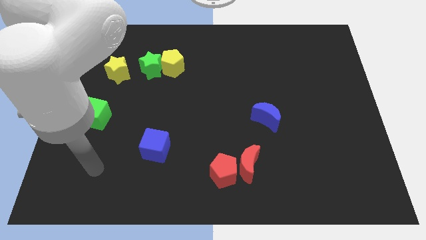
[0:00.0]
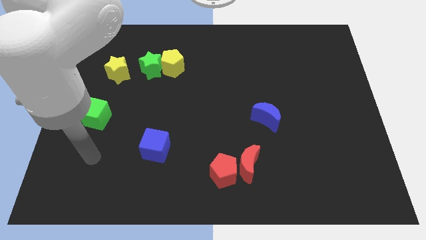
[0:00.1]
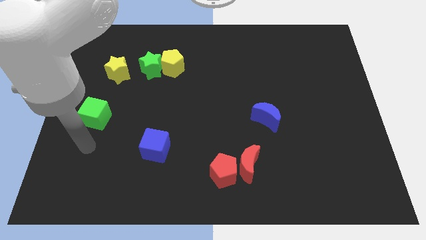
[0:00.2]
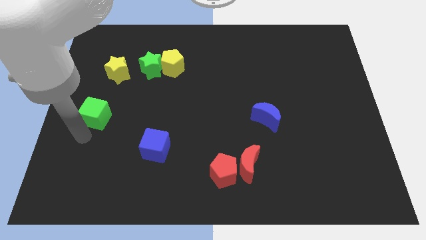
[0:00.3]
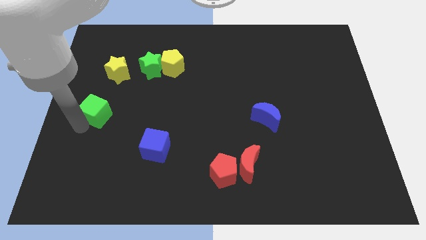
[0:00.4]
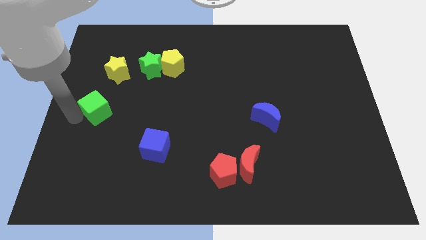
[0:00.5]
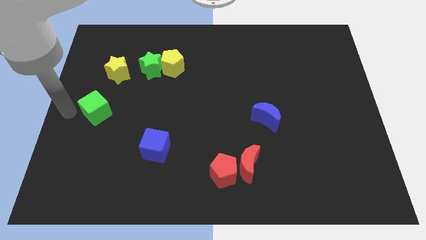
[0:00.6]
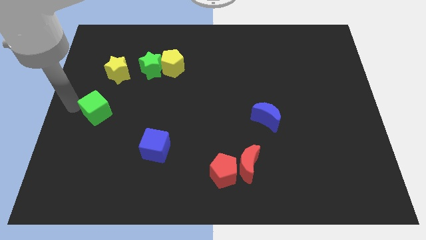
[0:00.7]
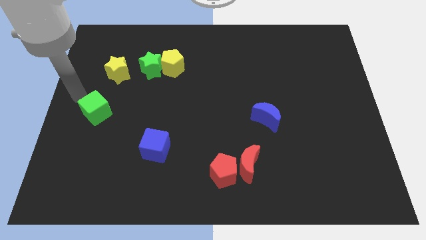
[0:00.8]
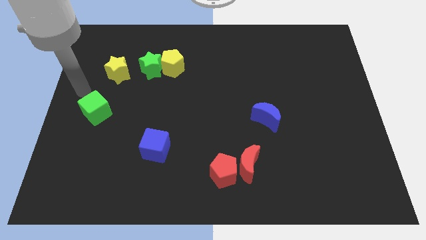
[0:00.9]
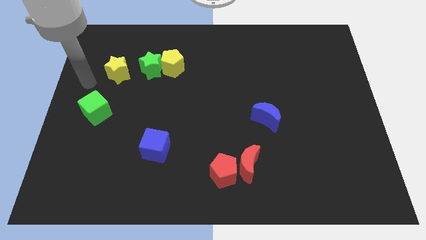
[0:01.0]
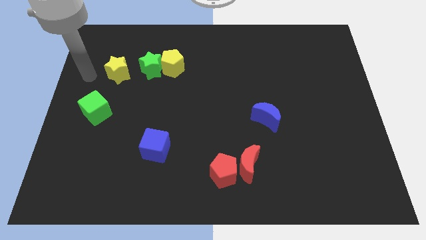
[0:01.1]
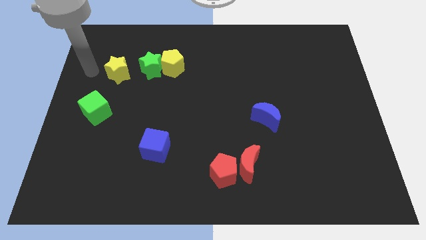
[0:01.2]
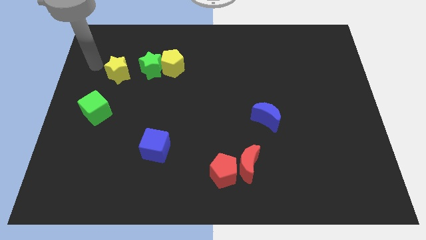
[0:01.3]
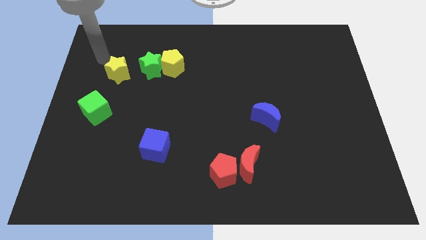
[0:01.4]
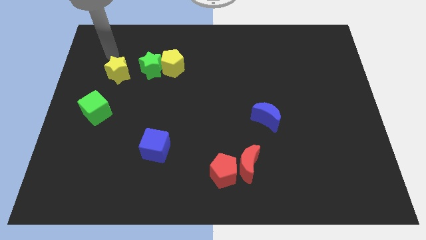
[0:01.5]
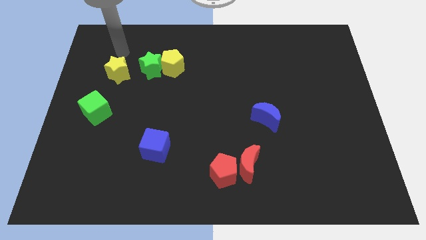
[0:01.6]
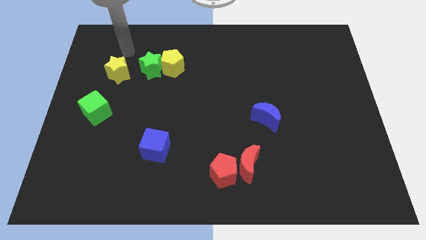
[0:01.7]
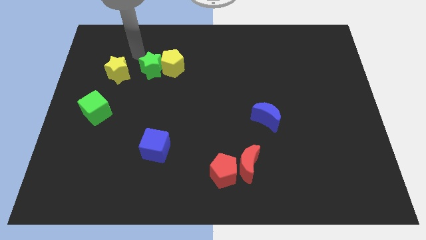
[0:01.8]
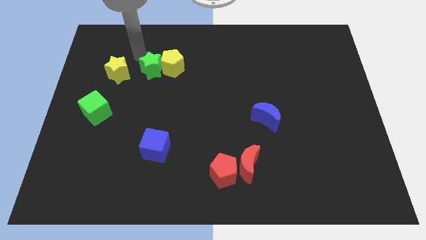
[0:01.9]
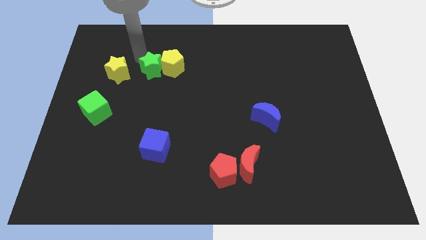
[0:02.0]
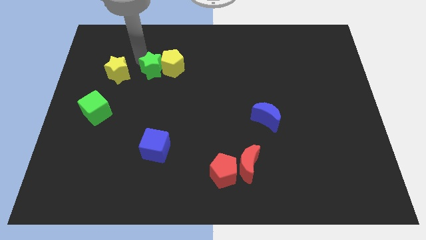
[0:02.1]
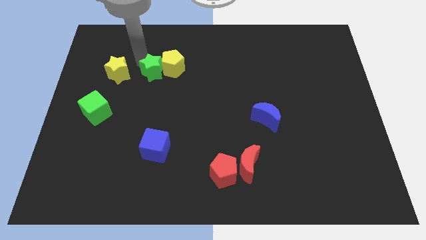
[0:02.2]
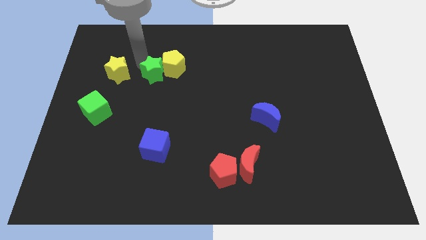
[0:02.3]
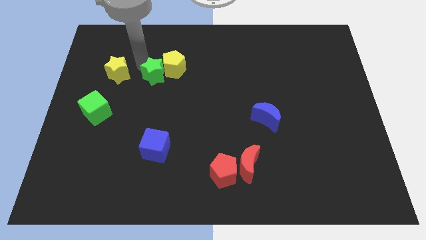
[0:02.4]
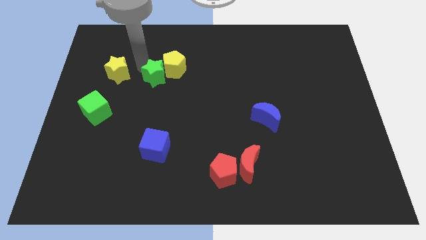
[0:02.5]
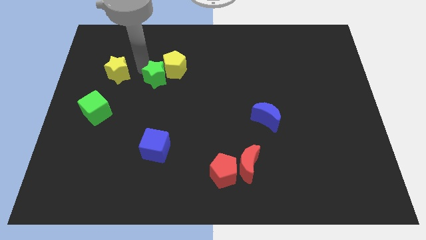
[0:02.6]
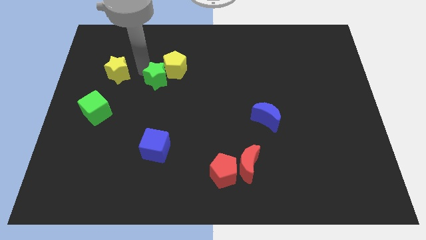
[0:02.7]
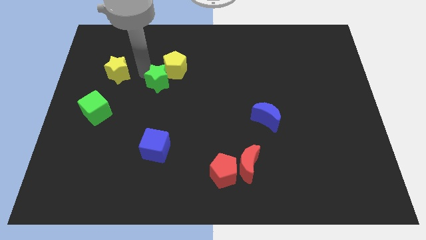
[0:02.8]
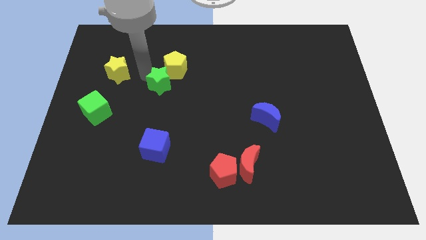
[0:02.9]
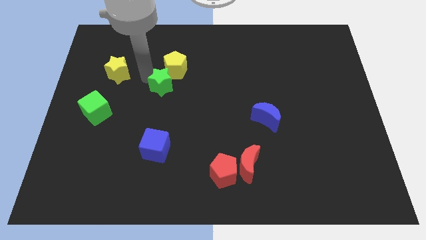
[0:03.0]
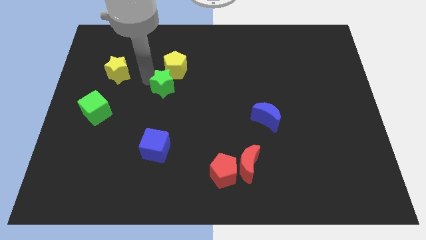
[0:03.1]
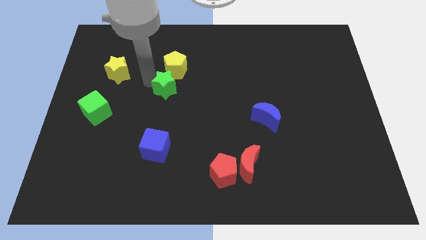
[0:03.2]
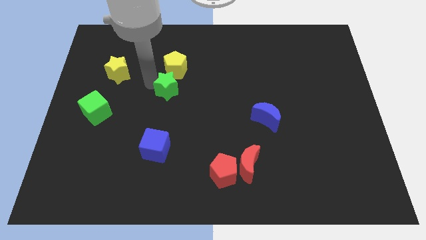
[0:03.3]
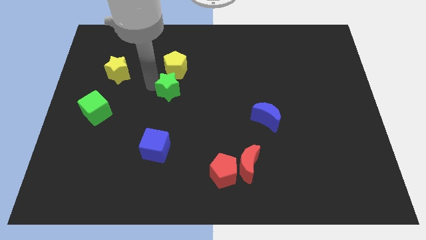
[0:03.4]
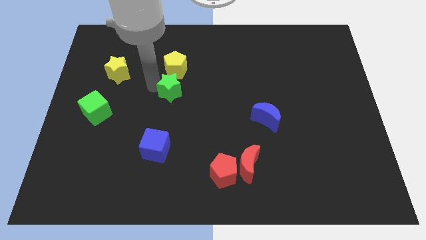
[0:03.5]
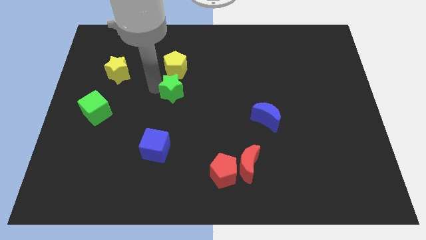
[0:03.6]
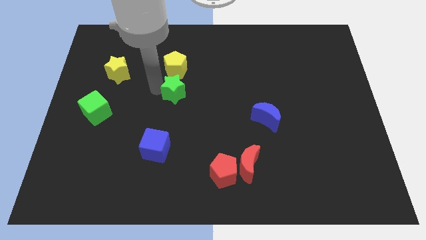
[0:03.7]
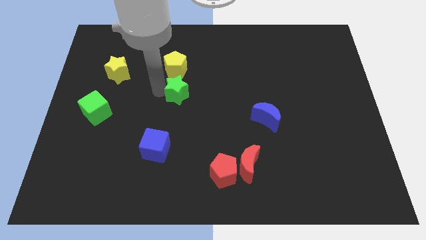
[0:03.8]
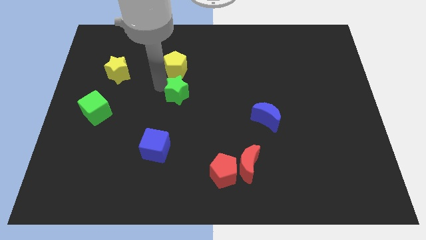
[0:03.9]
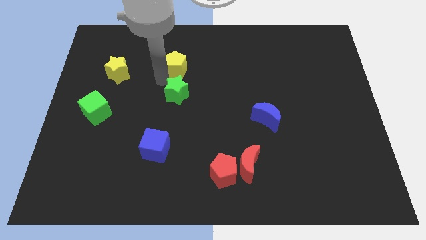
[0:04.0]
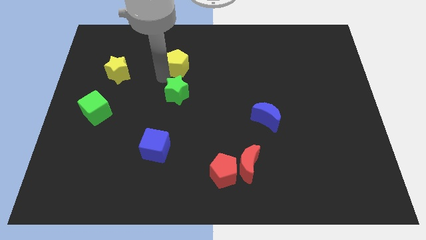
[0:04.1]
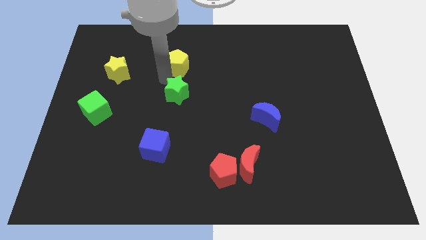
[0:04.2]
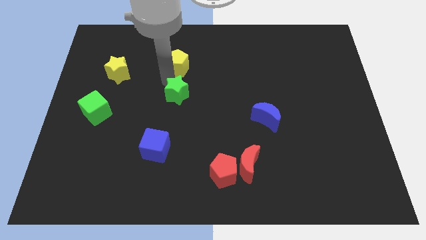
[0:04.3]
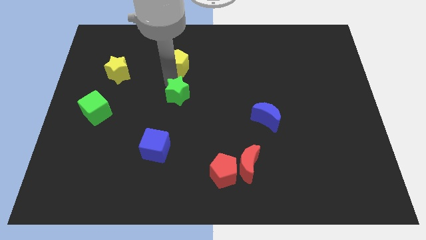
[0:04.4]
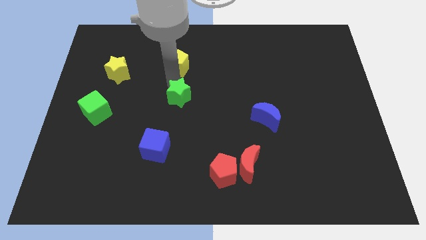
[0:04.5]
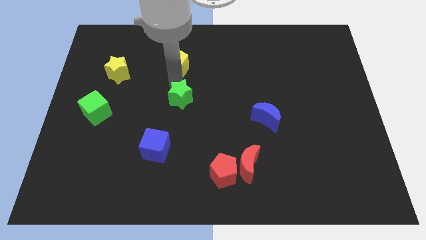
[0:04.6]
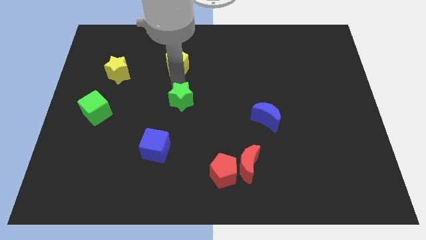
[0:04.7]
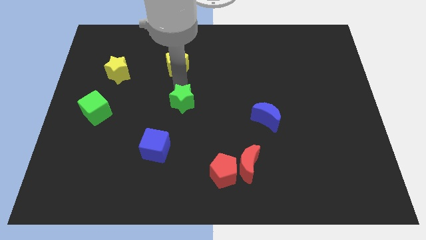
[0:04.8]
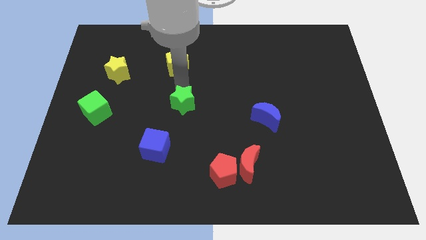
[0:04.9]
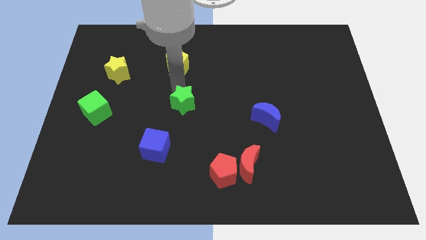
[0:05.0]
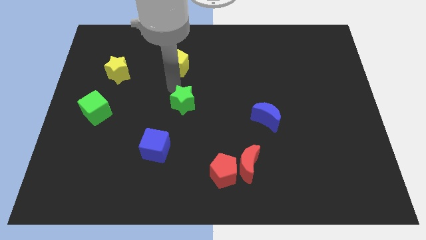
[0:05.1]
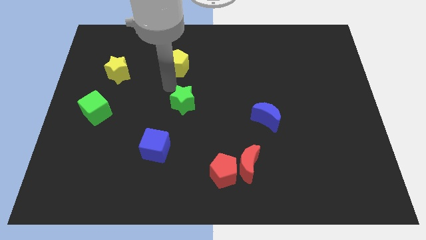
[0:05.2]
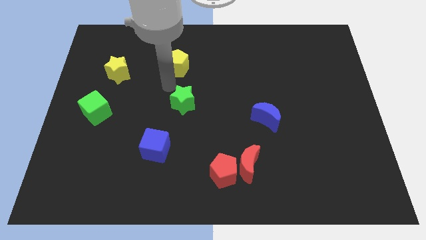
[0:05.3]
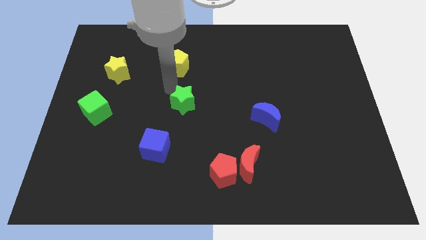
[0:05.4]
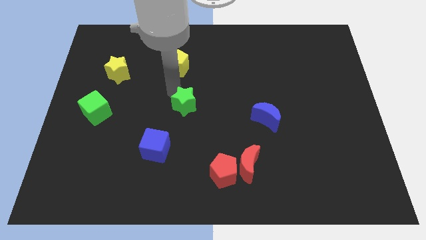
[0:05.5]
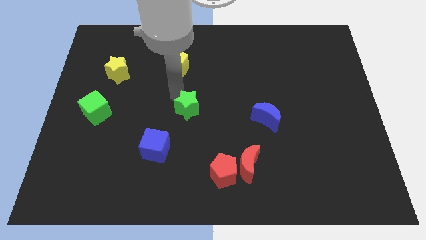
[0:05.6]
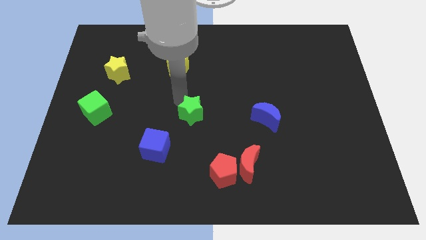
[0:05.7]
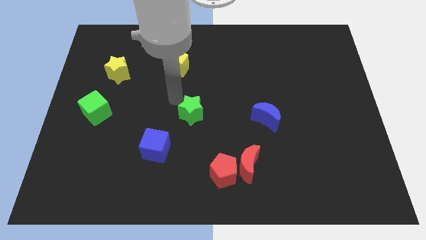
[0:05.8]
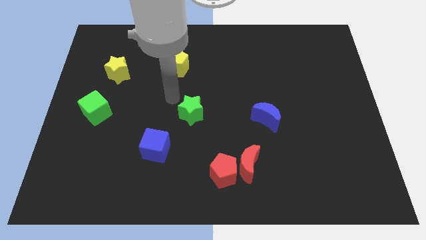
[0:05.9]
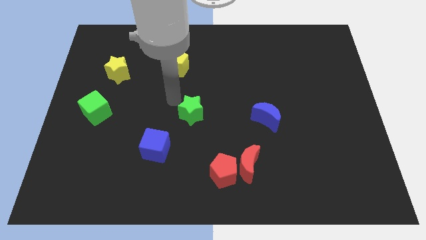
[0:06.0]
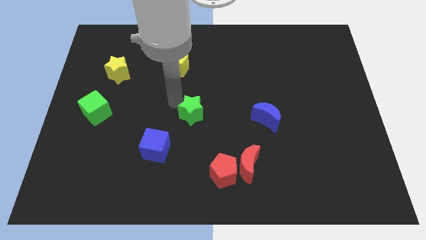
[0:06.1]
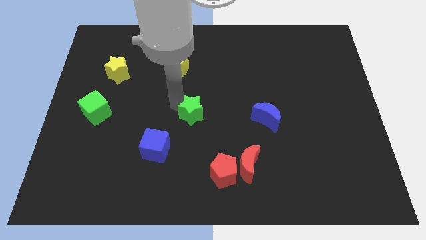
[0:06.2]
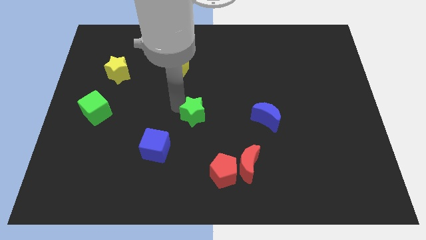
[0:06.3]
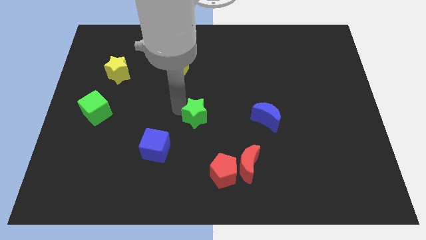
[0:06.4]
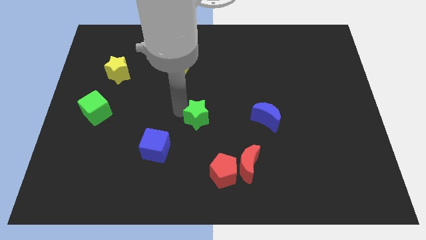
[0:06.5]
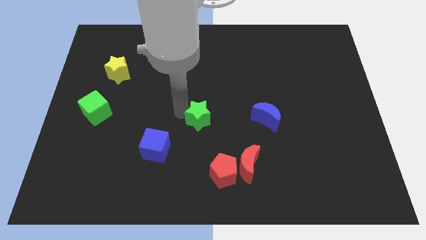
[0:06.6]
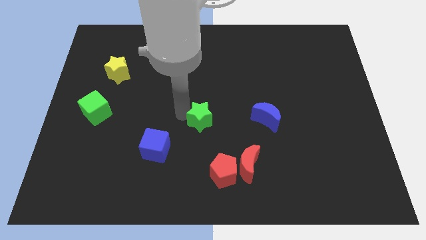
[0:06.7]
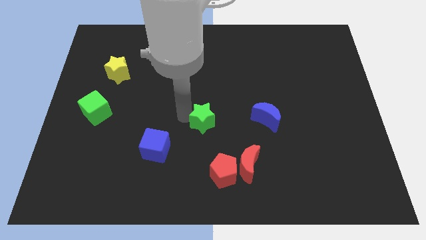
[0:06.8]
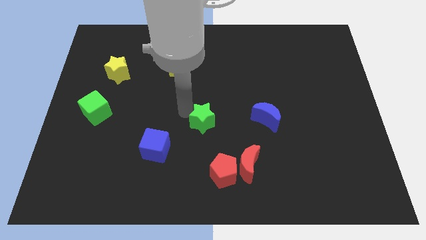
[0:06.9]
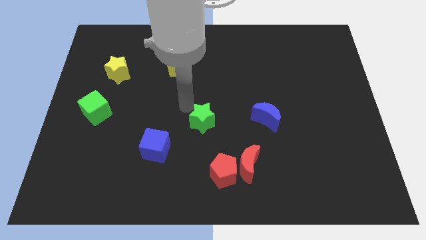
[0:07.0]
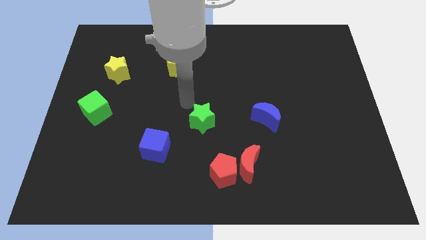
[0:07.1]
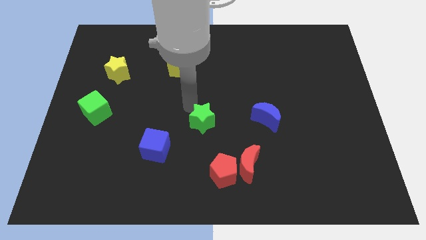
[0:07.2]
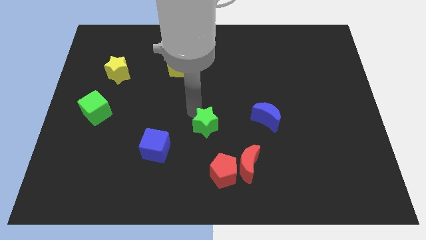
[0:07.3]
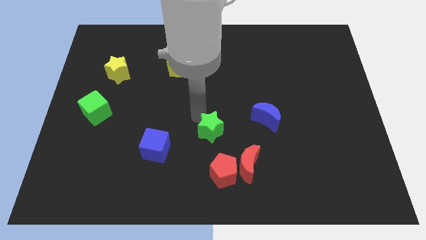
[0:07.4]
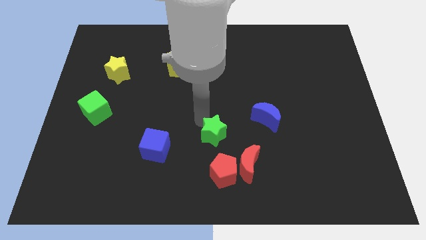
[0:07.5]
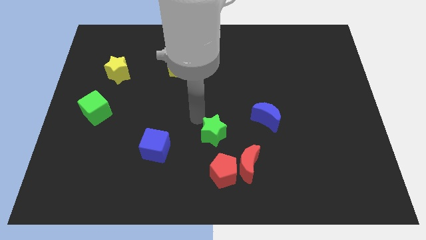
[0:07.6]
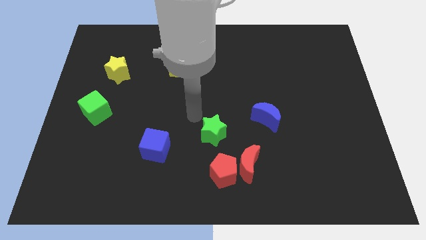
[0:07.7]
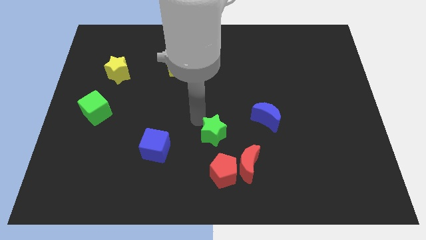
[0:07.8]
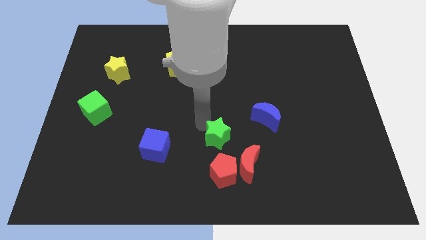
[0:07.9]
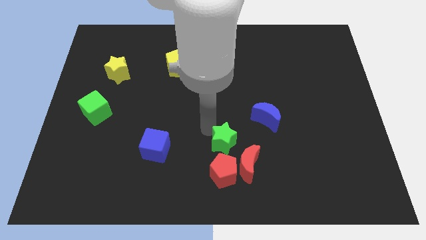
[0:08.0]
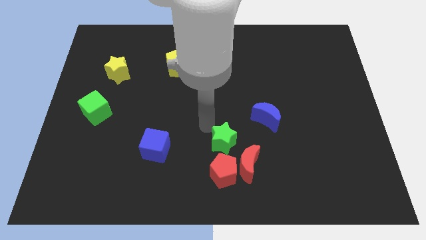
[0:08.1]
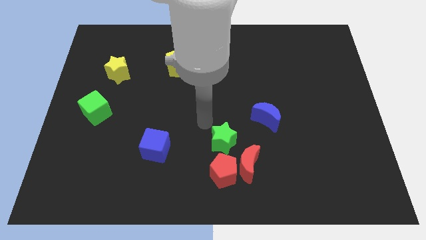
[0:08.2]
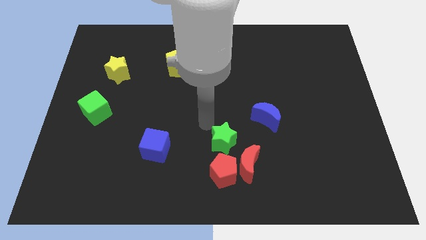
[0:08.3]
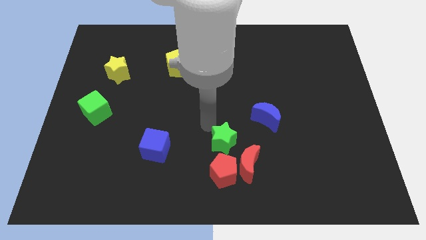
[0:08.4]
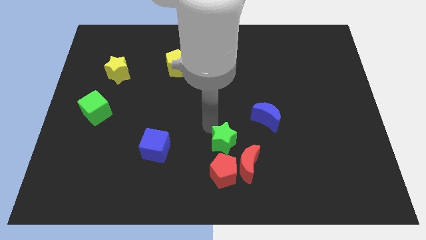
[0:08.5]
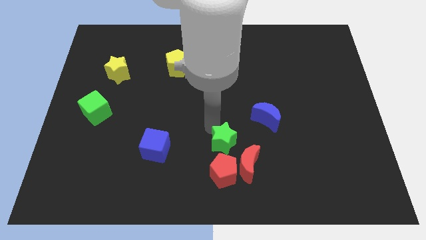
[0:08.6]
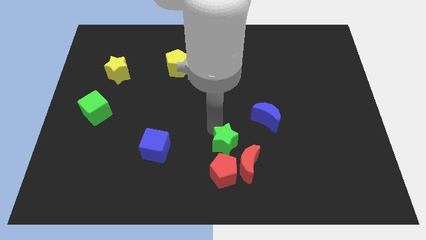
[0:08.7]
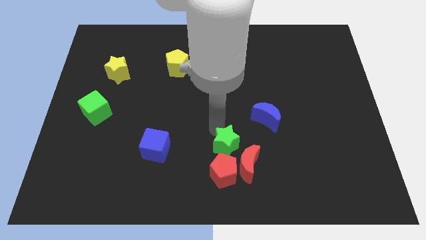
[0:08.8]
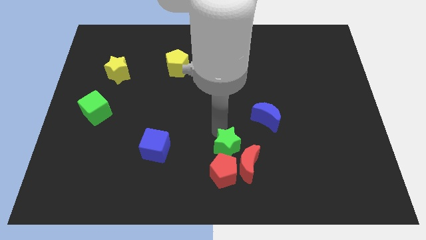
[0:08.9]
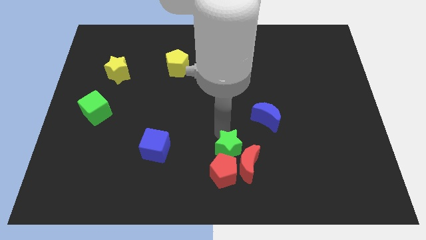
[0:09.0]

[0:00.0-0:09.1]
put the green star to the red moon
